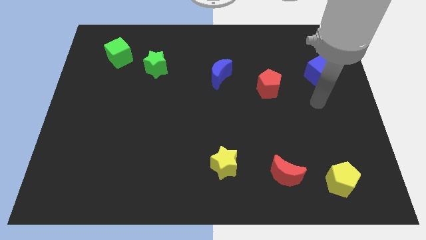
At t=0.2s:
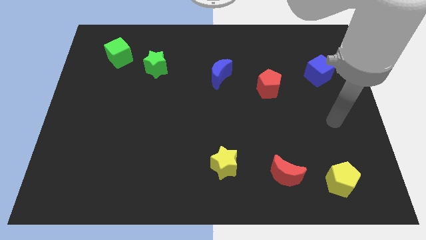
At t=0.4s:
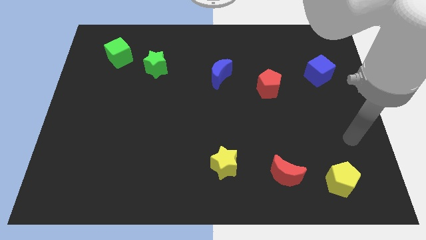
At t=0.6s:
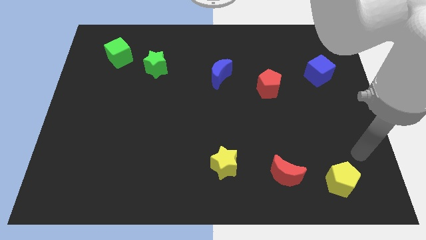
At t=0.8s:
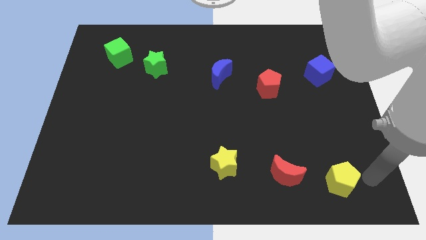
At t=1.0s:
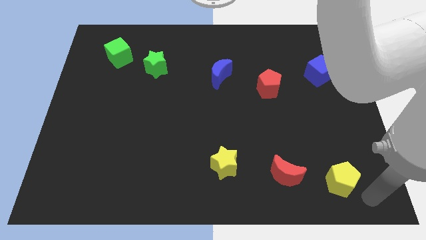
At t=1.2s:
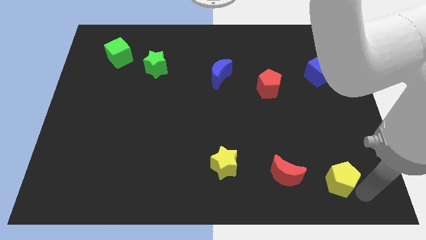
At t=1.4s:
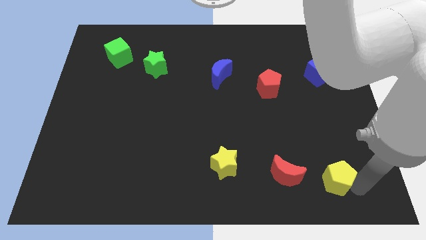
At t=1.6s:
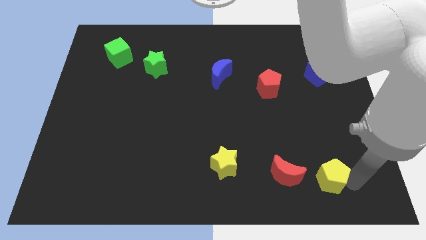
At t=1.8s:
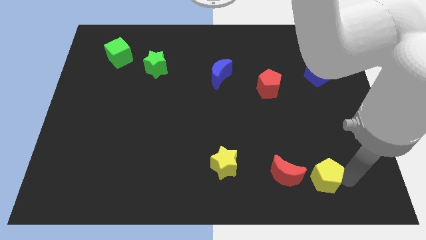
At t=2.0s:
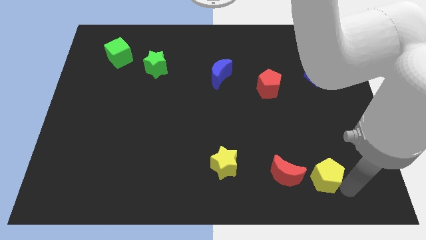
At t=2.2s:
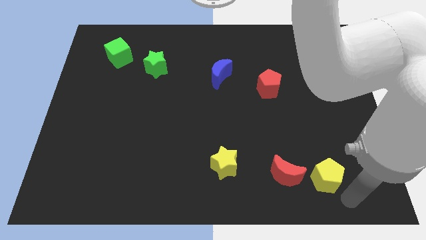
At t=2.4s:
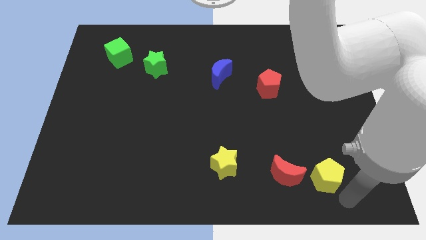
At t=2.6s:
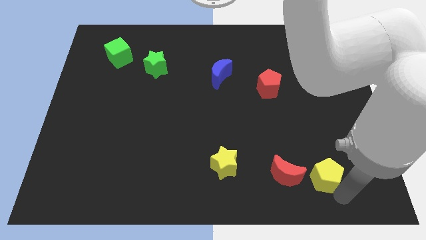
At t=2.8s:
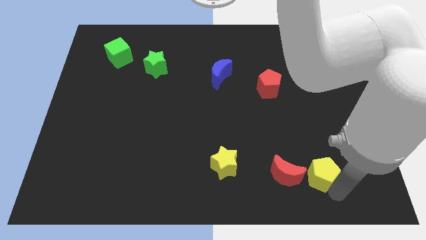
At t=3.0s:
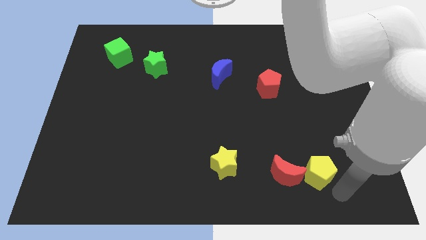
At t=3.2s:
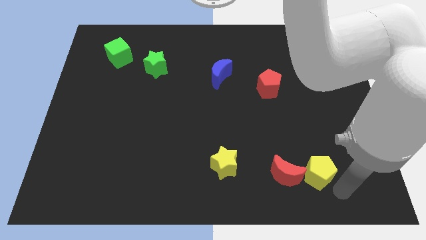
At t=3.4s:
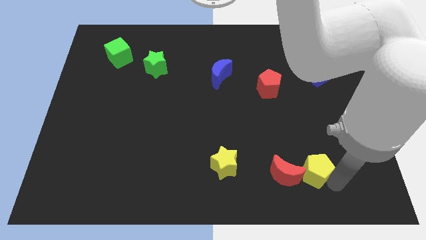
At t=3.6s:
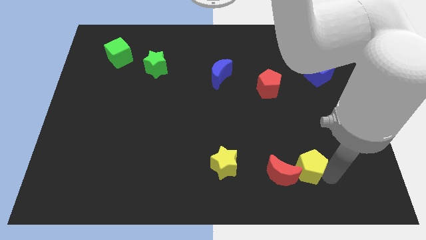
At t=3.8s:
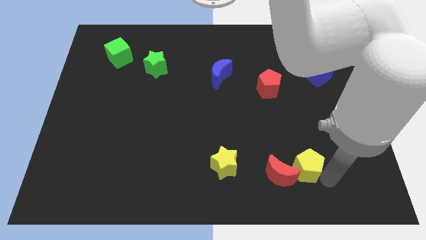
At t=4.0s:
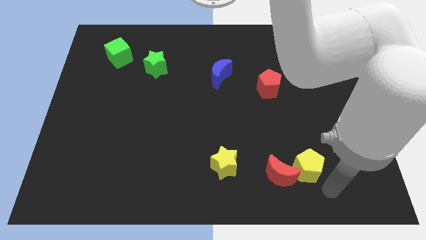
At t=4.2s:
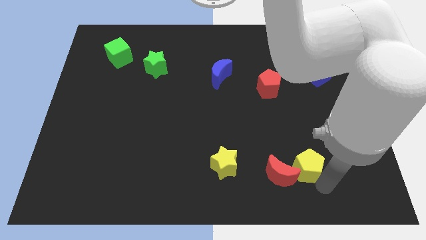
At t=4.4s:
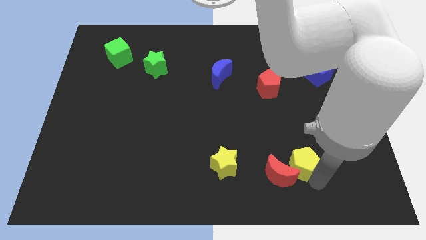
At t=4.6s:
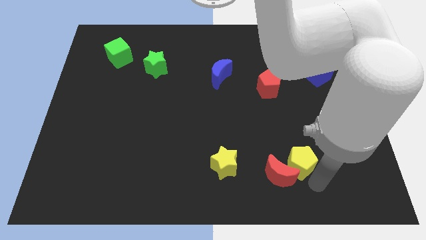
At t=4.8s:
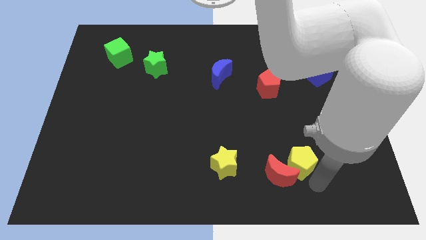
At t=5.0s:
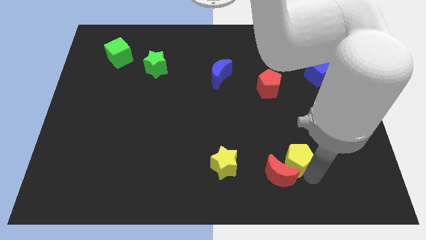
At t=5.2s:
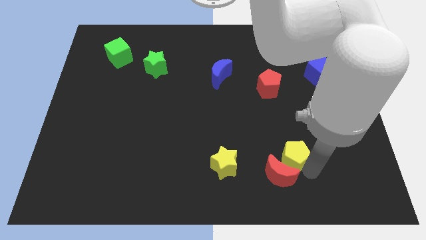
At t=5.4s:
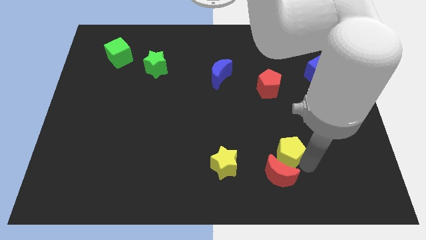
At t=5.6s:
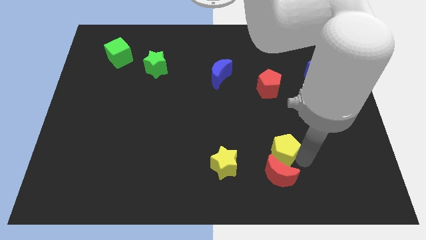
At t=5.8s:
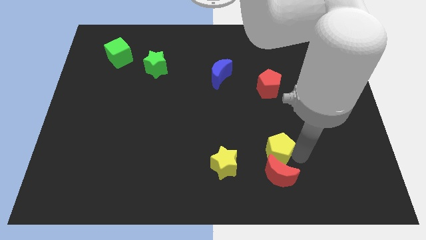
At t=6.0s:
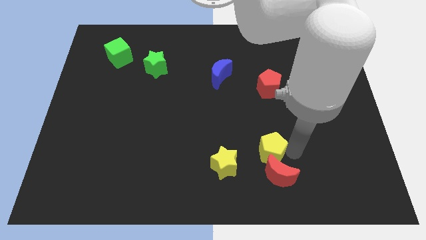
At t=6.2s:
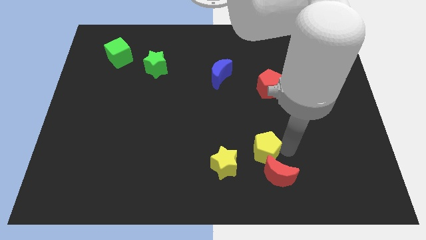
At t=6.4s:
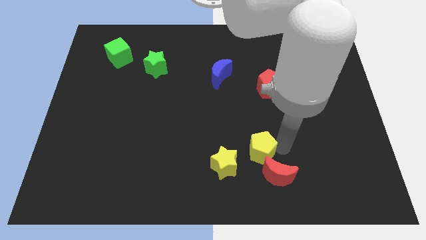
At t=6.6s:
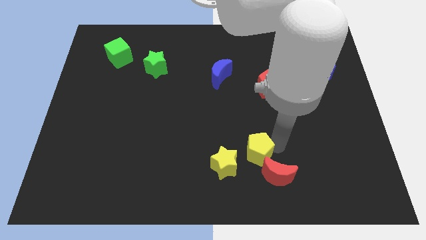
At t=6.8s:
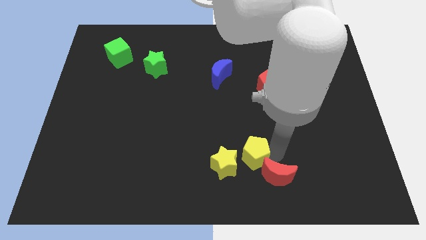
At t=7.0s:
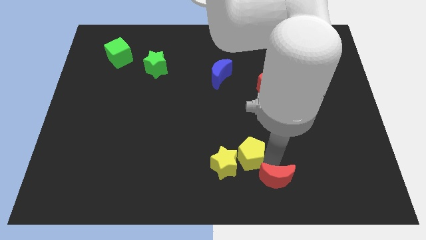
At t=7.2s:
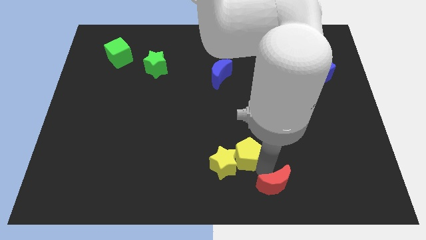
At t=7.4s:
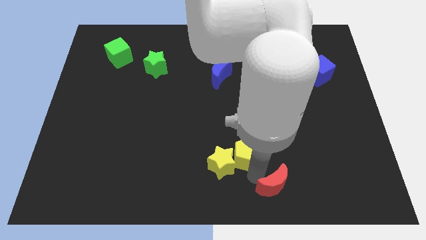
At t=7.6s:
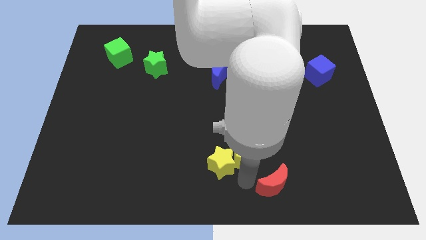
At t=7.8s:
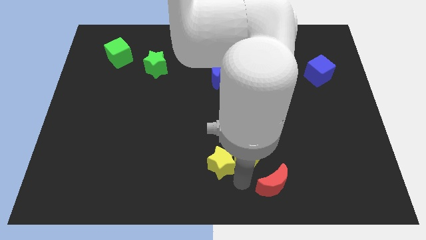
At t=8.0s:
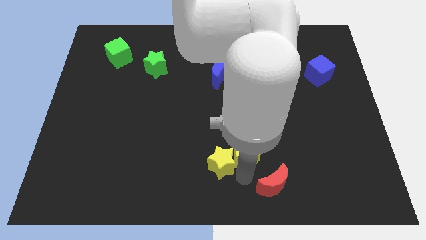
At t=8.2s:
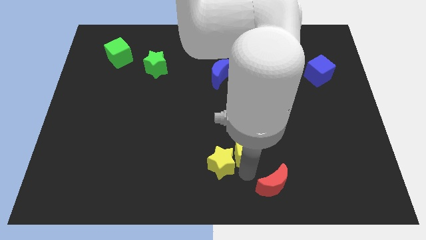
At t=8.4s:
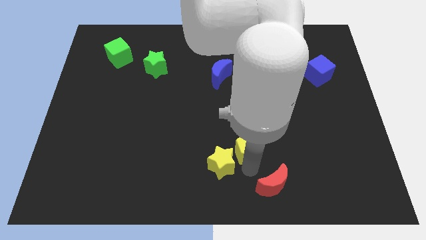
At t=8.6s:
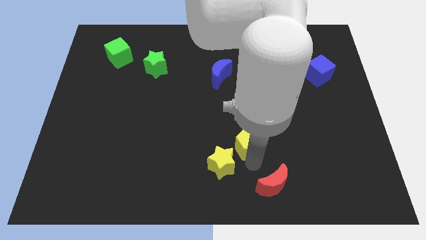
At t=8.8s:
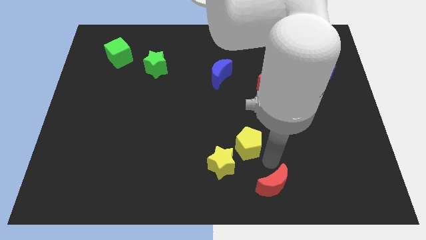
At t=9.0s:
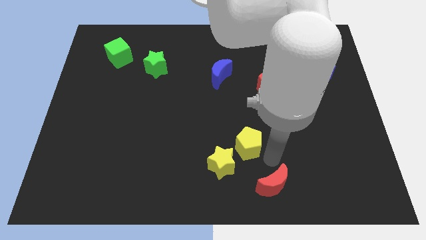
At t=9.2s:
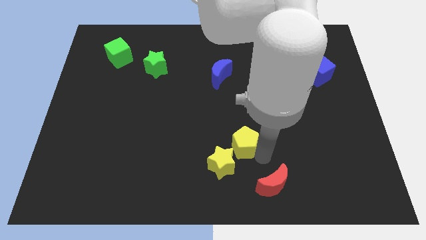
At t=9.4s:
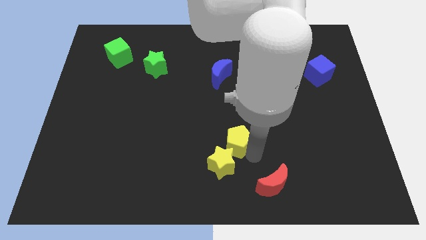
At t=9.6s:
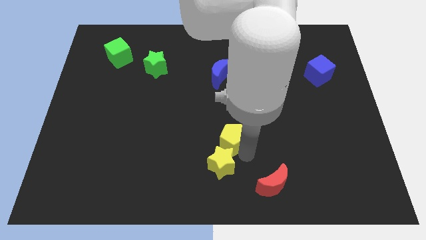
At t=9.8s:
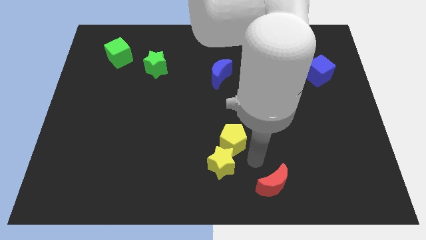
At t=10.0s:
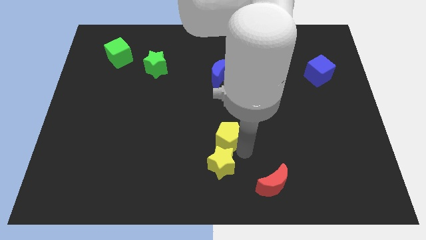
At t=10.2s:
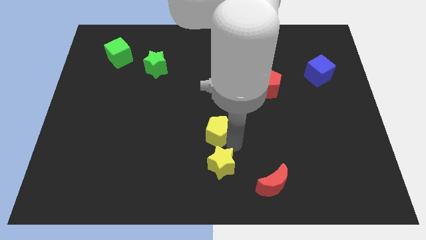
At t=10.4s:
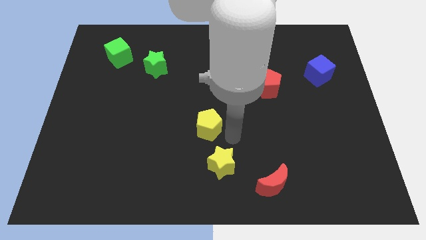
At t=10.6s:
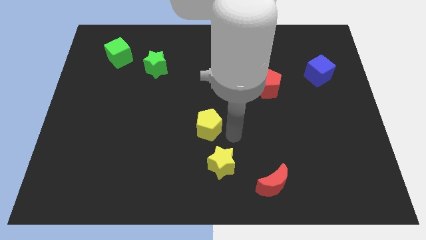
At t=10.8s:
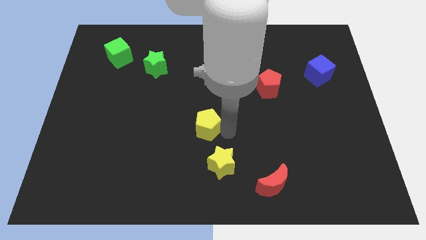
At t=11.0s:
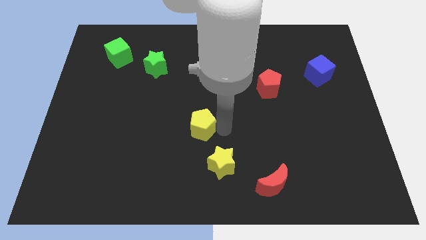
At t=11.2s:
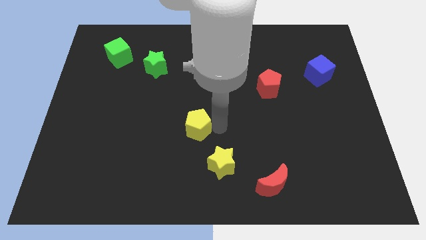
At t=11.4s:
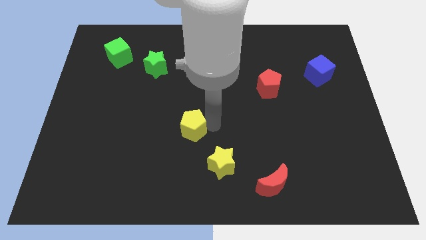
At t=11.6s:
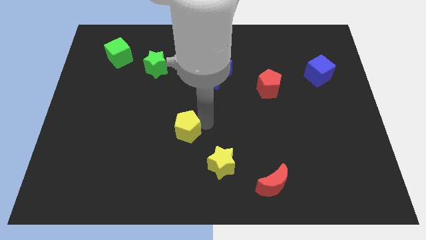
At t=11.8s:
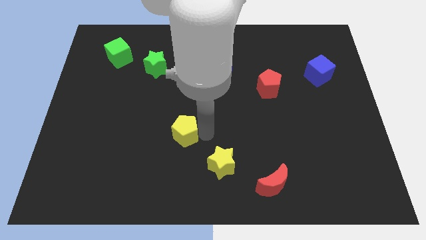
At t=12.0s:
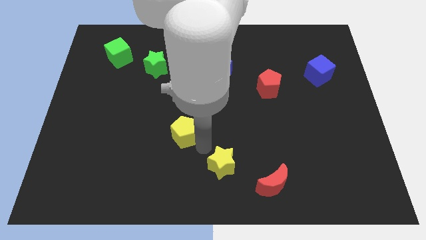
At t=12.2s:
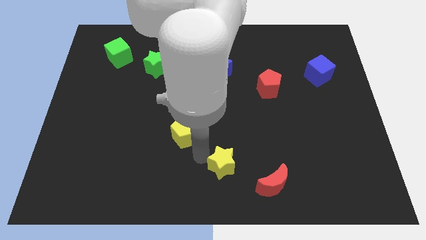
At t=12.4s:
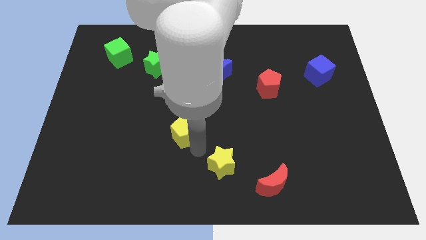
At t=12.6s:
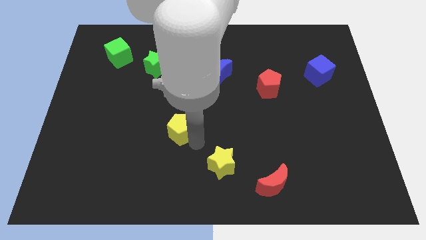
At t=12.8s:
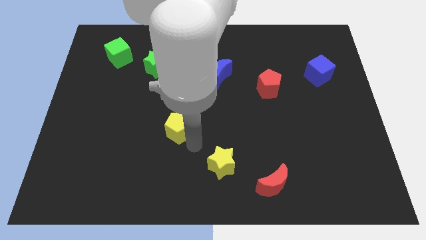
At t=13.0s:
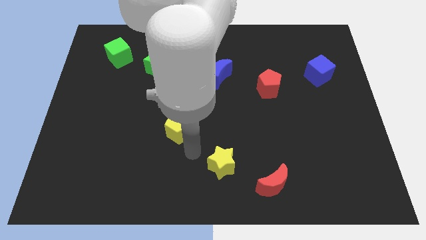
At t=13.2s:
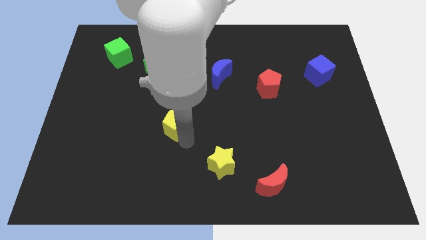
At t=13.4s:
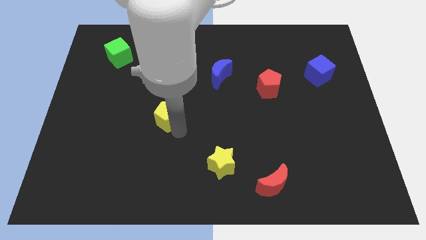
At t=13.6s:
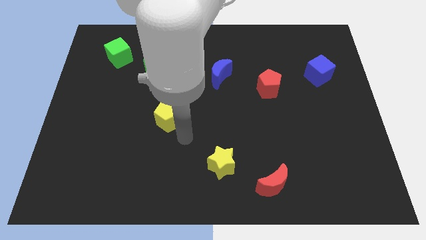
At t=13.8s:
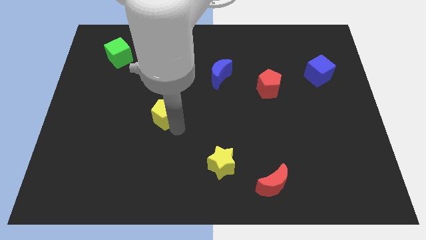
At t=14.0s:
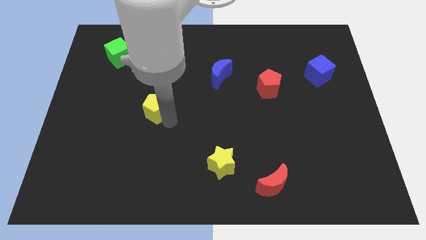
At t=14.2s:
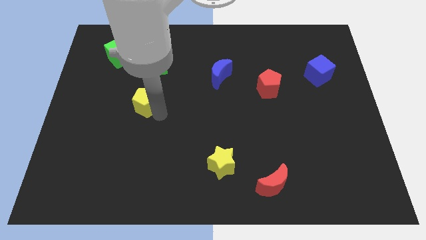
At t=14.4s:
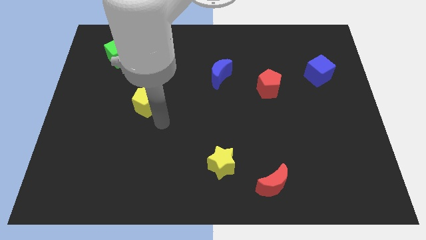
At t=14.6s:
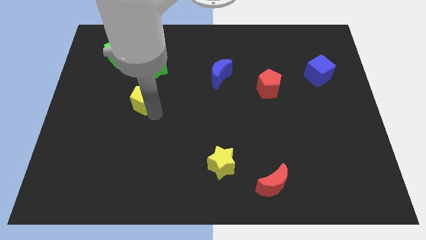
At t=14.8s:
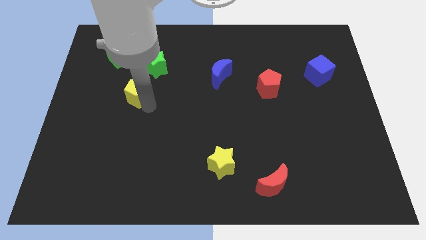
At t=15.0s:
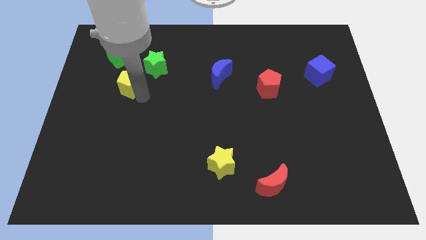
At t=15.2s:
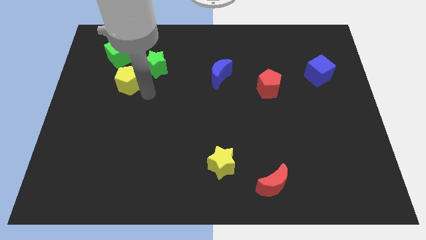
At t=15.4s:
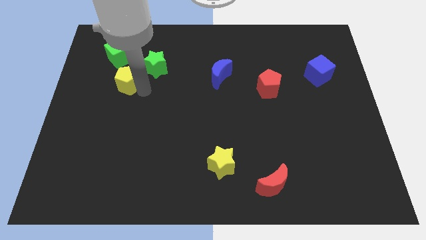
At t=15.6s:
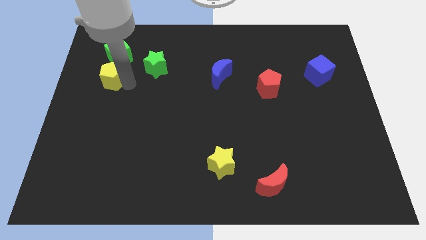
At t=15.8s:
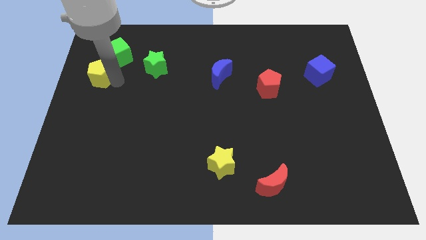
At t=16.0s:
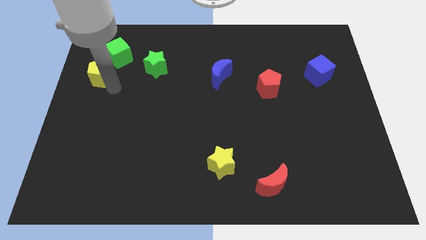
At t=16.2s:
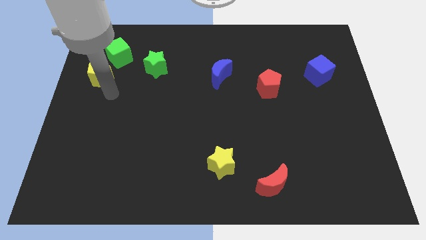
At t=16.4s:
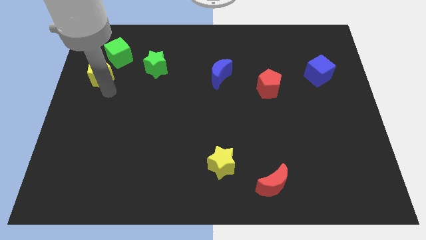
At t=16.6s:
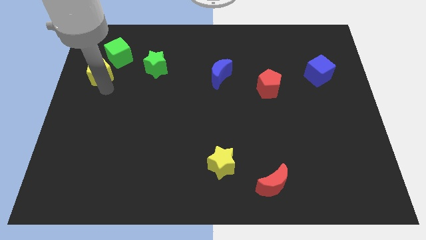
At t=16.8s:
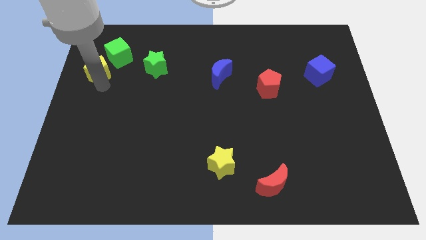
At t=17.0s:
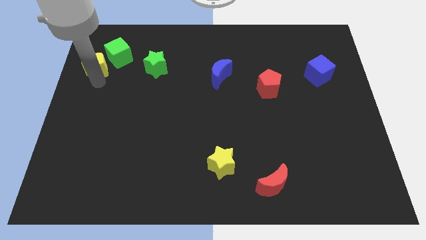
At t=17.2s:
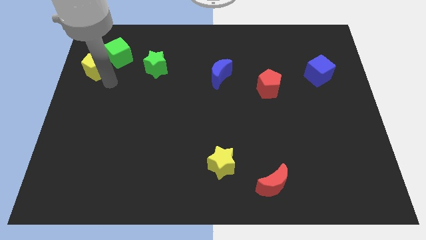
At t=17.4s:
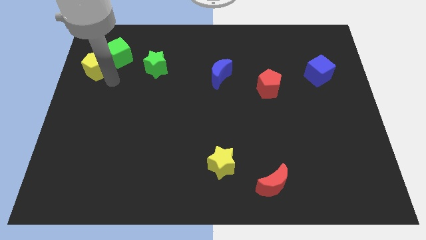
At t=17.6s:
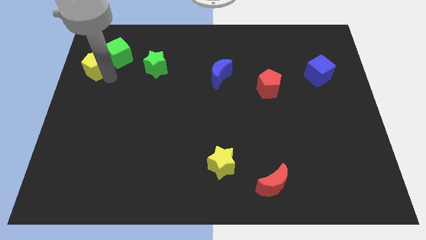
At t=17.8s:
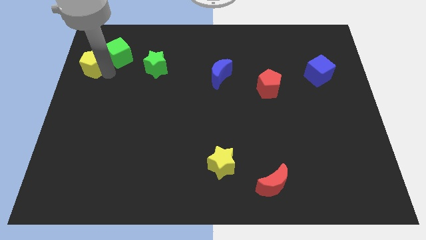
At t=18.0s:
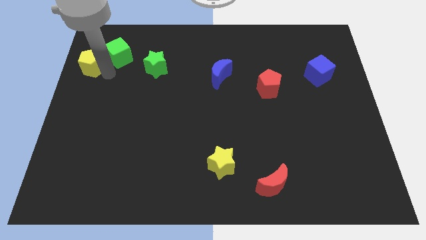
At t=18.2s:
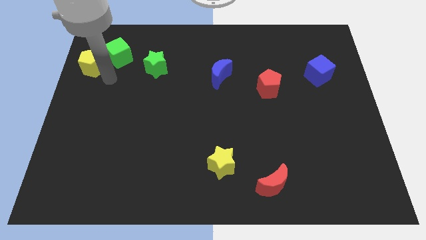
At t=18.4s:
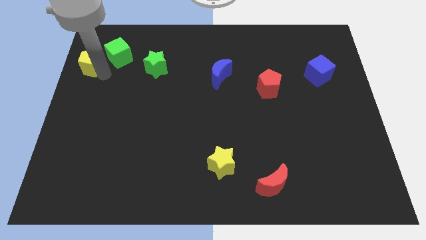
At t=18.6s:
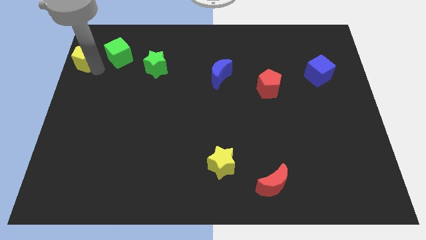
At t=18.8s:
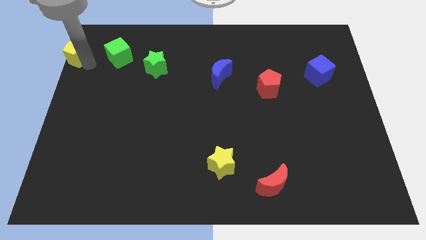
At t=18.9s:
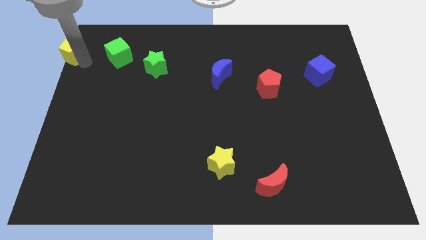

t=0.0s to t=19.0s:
push the yellow pentagon to the upper left corner
